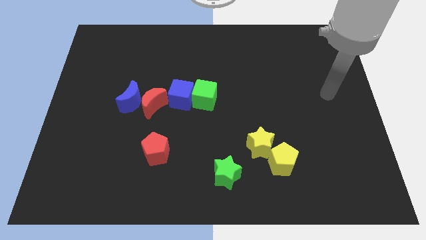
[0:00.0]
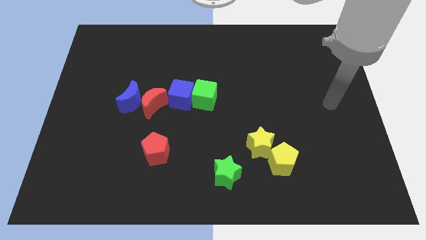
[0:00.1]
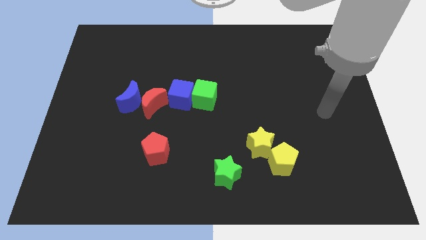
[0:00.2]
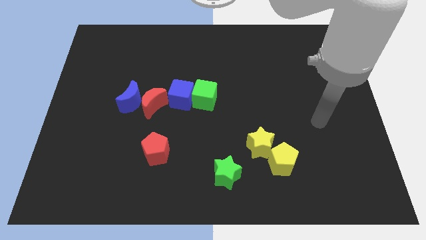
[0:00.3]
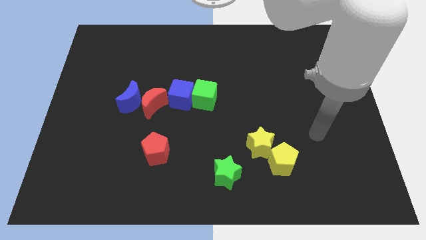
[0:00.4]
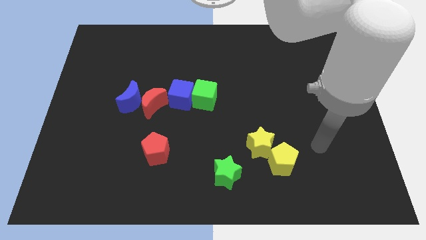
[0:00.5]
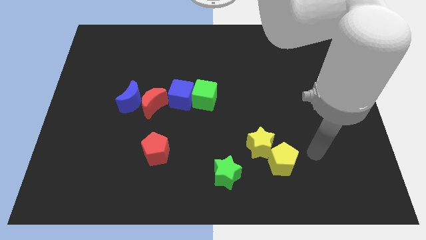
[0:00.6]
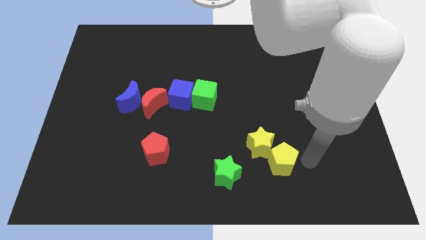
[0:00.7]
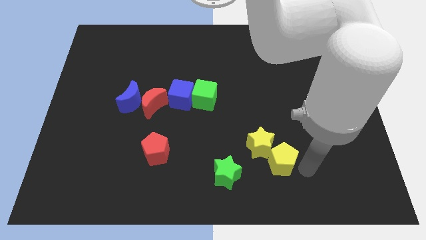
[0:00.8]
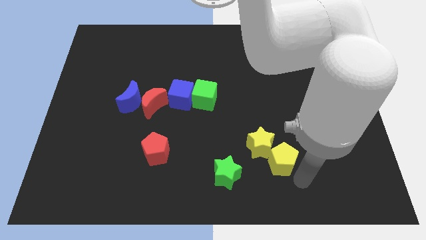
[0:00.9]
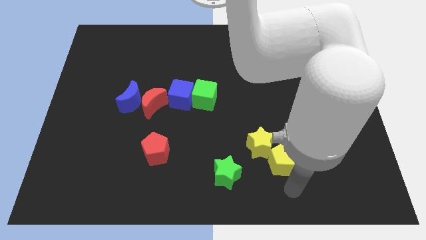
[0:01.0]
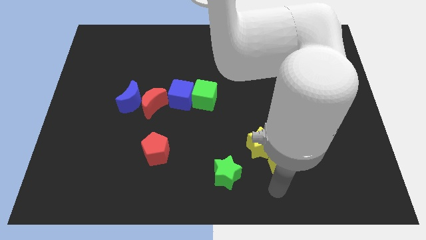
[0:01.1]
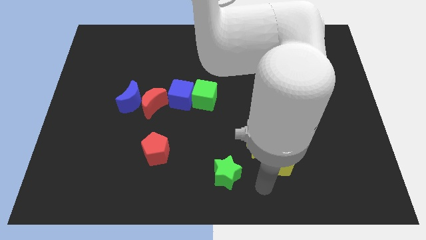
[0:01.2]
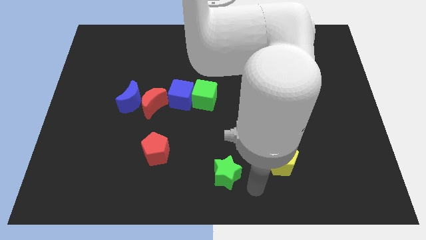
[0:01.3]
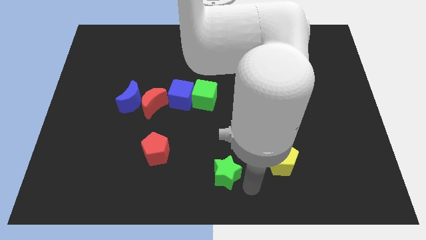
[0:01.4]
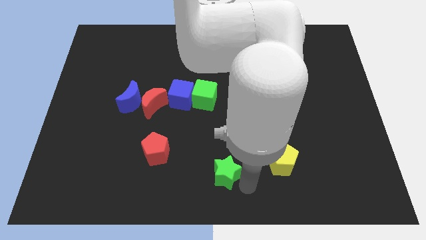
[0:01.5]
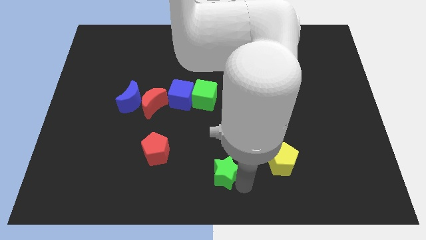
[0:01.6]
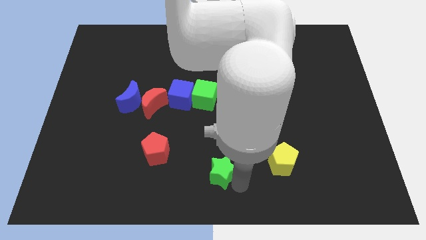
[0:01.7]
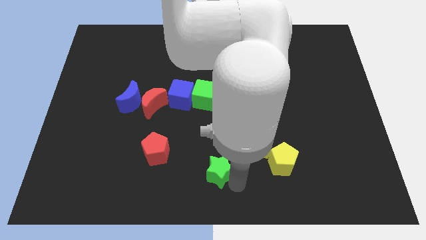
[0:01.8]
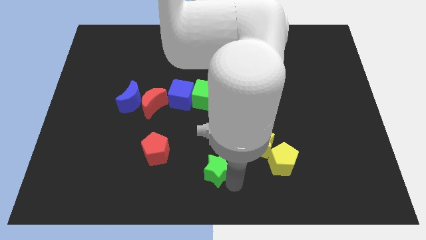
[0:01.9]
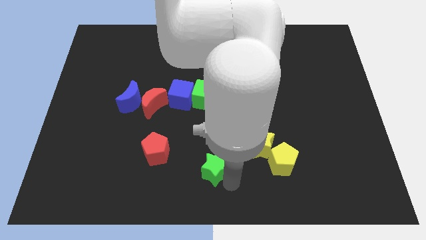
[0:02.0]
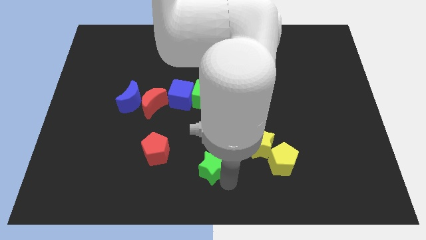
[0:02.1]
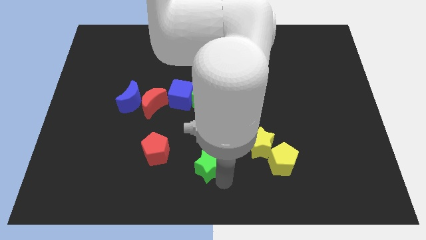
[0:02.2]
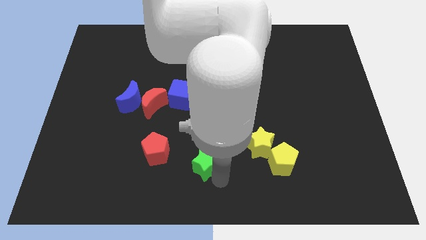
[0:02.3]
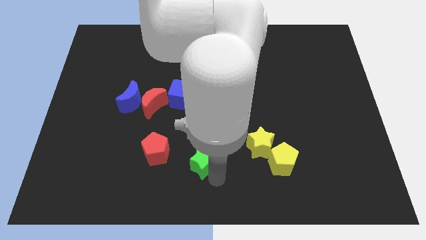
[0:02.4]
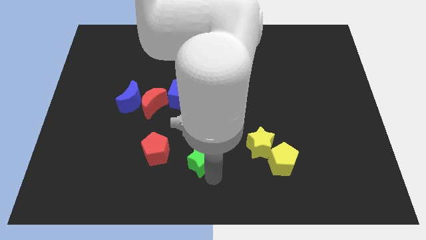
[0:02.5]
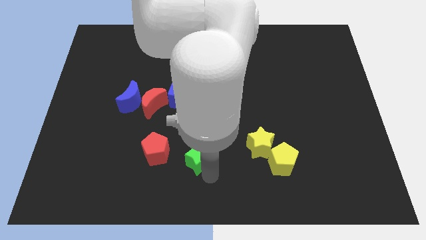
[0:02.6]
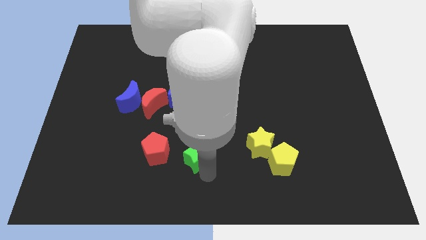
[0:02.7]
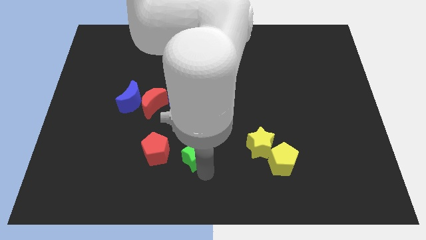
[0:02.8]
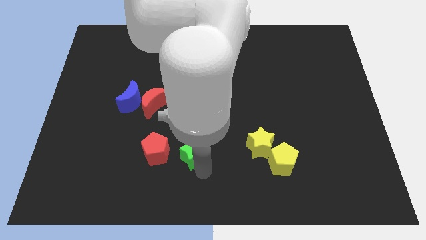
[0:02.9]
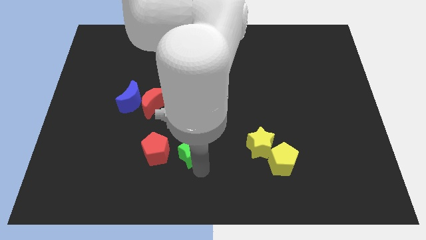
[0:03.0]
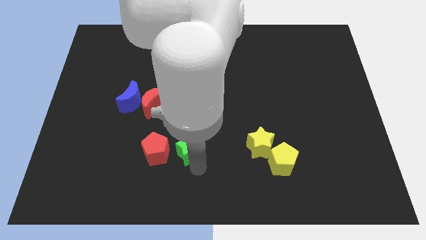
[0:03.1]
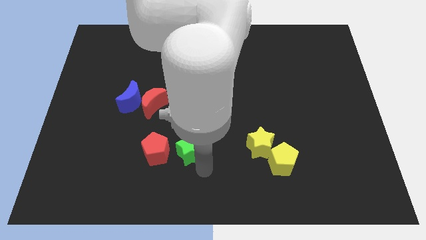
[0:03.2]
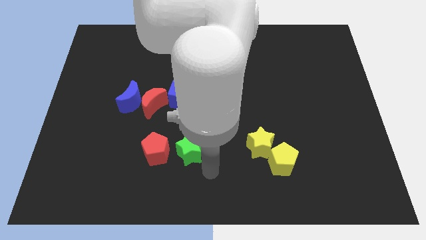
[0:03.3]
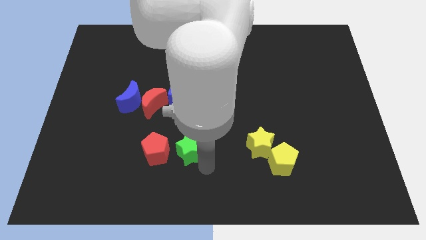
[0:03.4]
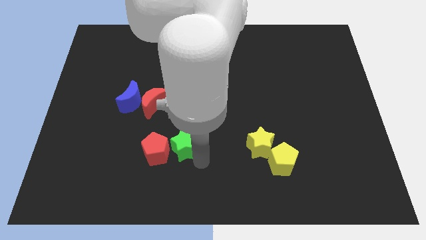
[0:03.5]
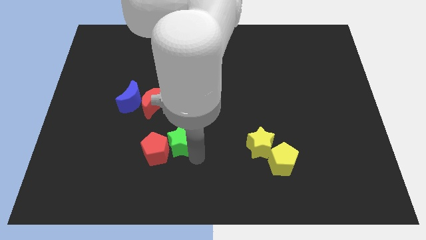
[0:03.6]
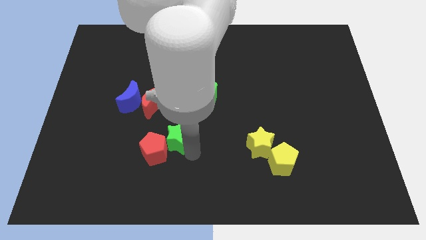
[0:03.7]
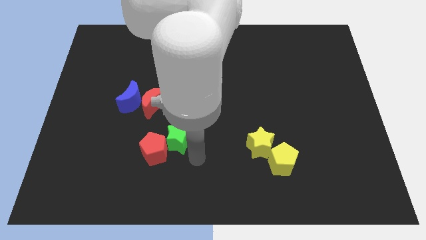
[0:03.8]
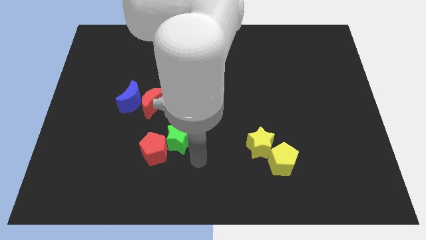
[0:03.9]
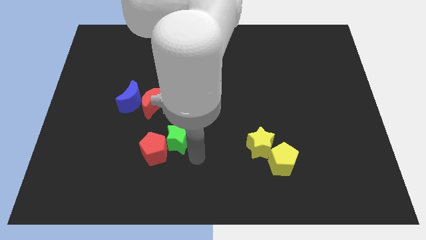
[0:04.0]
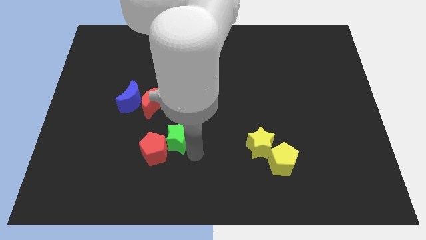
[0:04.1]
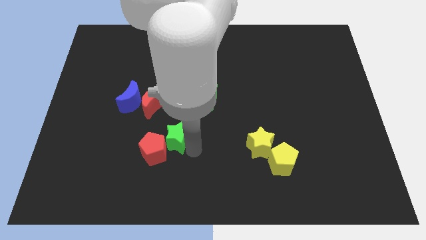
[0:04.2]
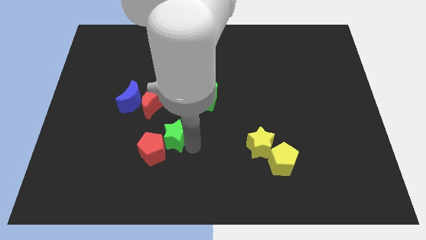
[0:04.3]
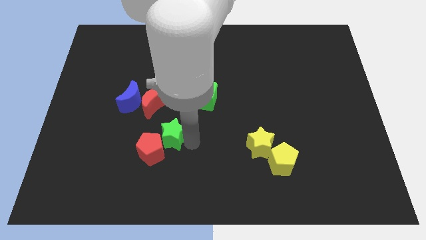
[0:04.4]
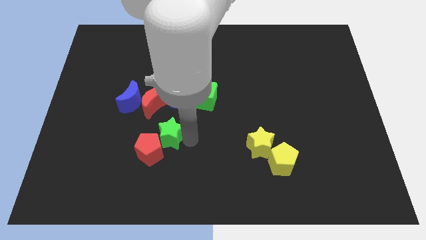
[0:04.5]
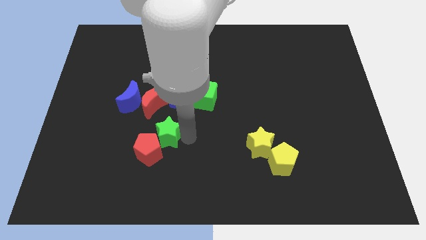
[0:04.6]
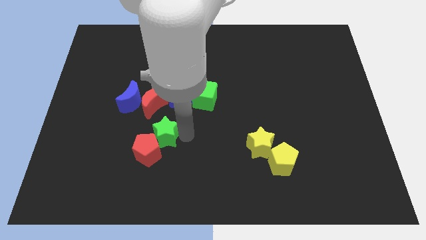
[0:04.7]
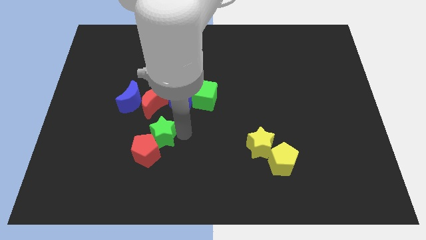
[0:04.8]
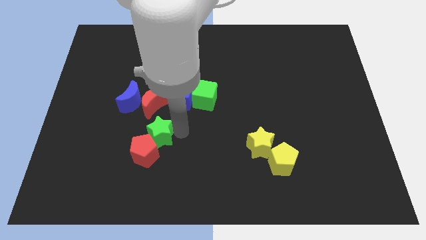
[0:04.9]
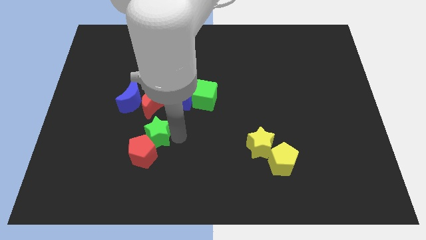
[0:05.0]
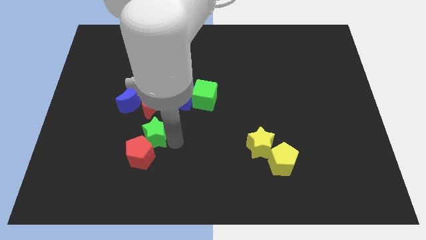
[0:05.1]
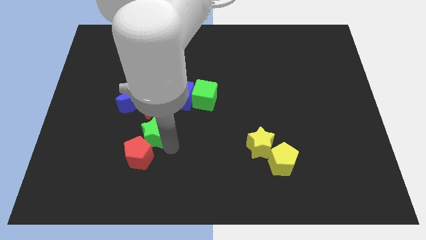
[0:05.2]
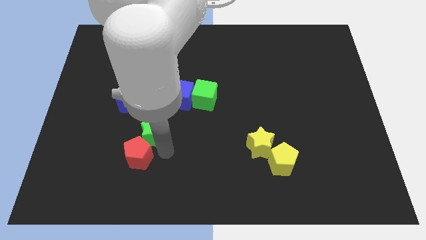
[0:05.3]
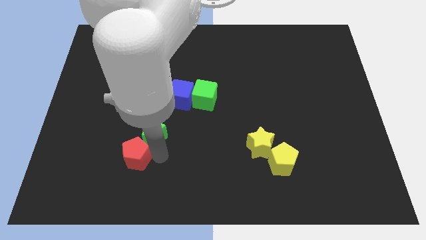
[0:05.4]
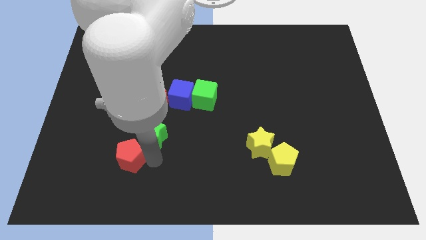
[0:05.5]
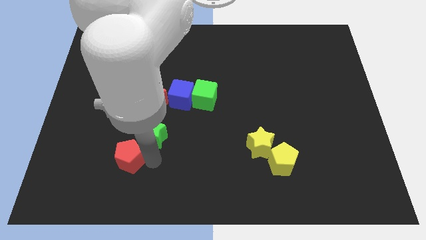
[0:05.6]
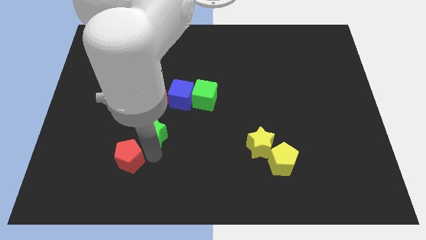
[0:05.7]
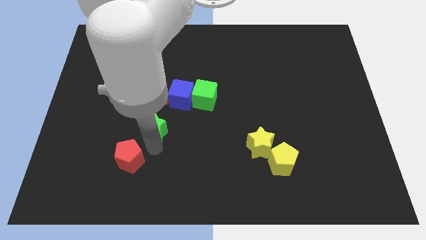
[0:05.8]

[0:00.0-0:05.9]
put the green star to the bottom left side of the blue cube

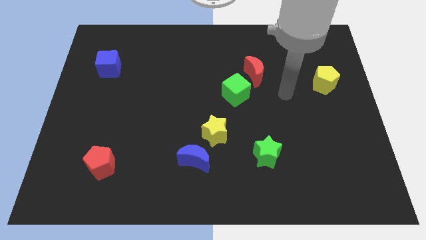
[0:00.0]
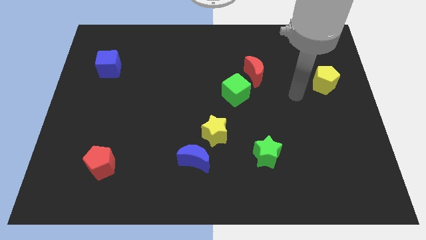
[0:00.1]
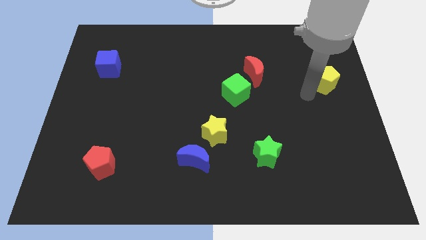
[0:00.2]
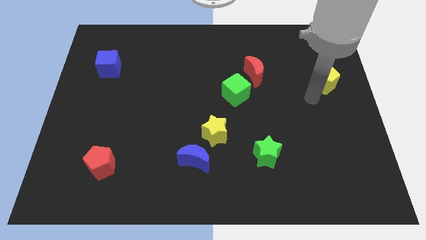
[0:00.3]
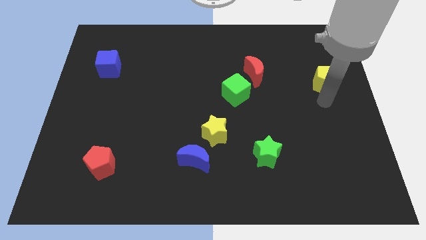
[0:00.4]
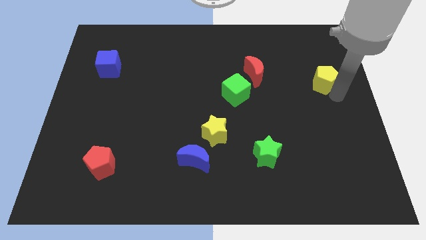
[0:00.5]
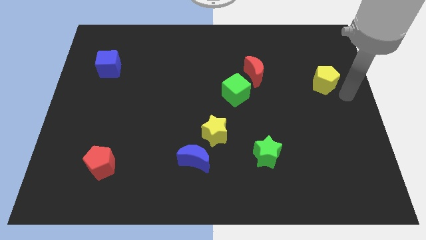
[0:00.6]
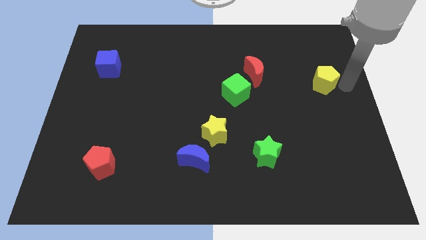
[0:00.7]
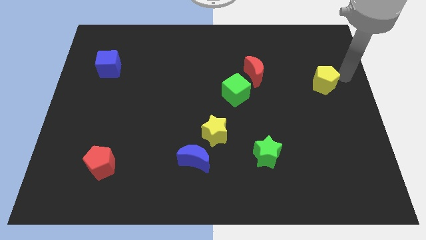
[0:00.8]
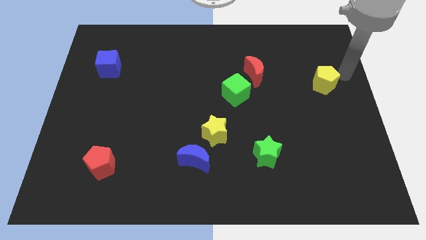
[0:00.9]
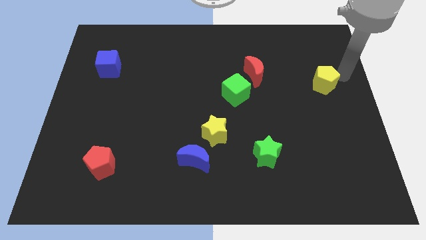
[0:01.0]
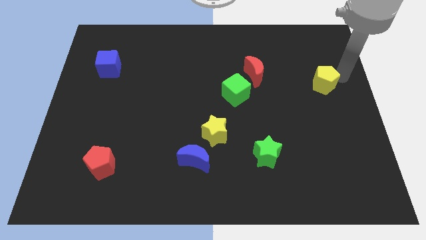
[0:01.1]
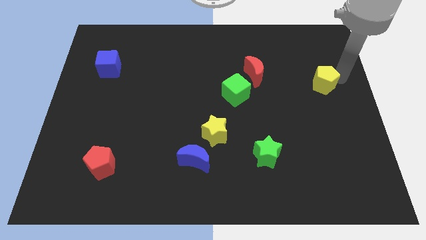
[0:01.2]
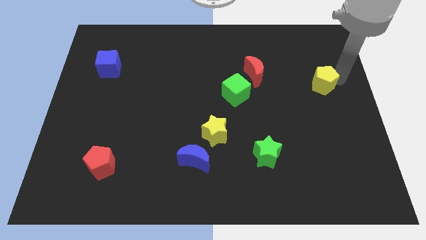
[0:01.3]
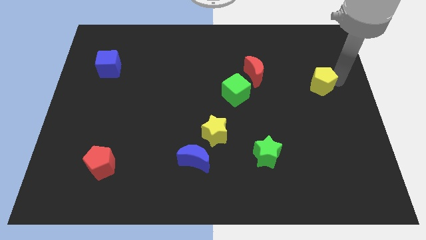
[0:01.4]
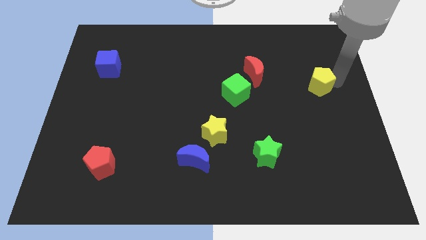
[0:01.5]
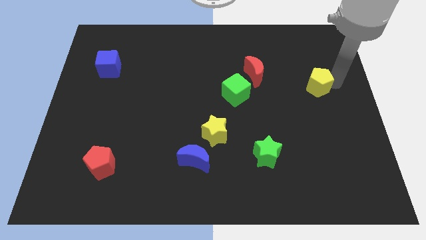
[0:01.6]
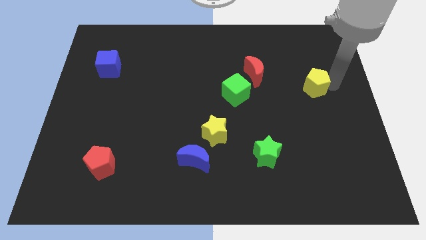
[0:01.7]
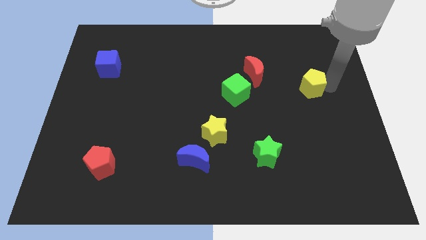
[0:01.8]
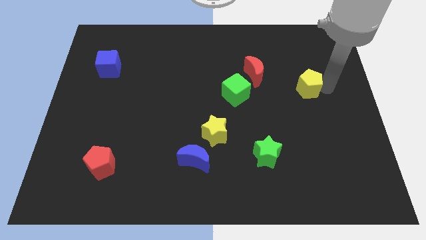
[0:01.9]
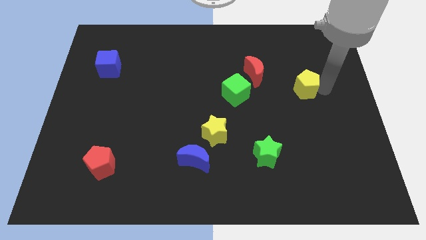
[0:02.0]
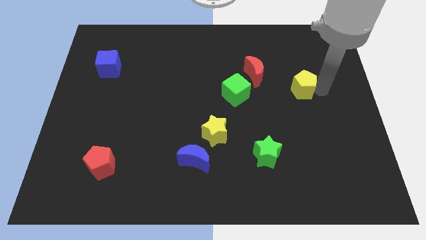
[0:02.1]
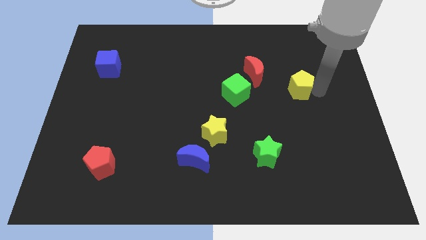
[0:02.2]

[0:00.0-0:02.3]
push the yellow pentagon to the right side of the green cube
